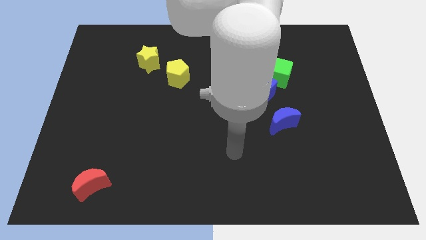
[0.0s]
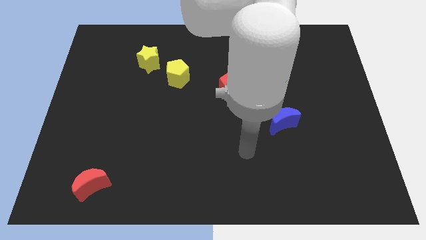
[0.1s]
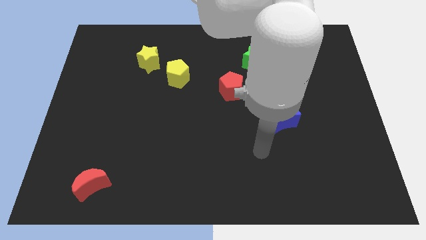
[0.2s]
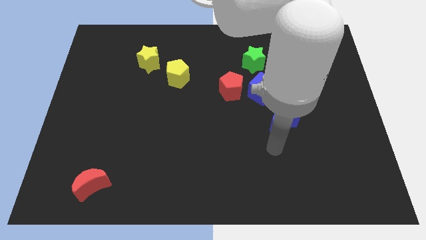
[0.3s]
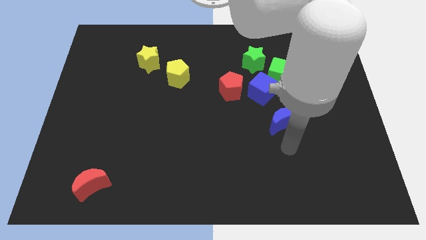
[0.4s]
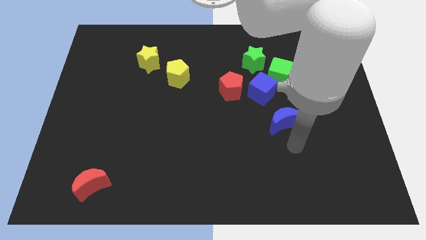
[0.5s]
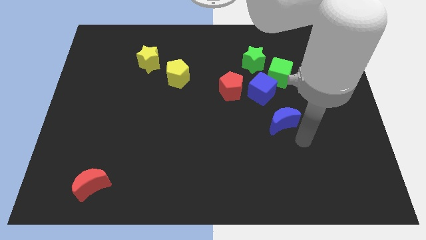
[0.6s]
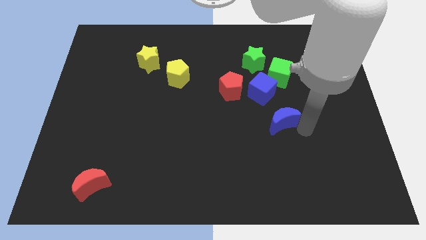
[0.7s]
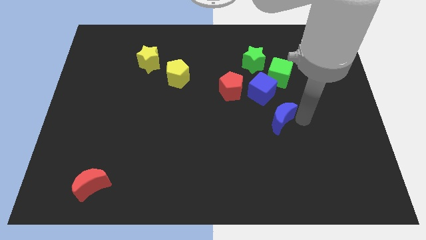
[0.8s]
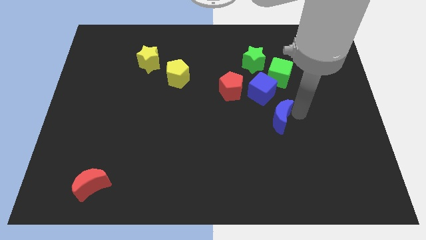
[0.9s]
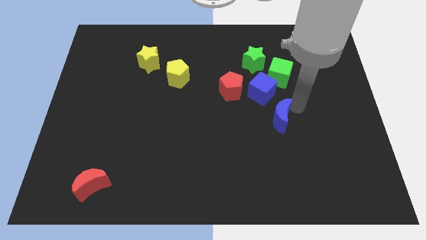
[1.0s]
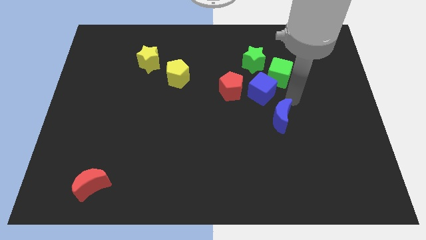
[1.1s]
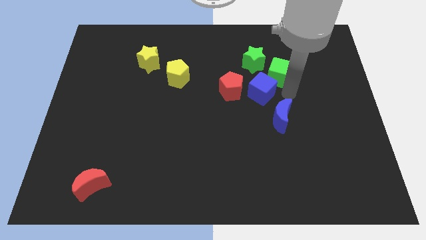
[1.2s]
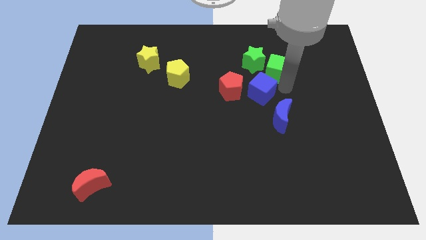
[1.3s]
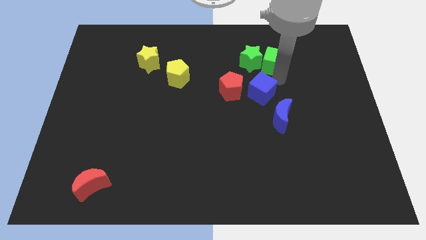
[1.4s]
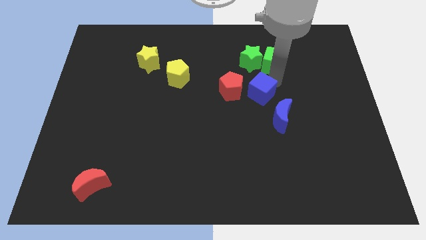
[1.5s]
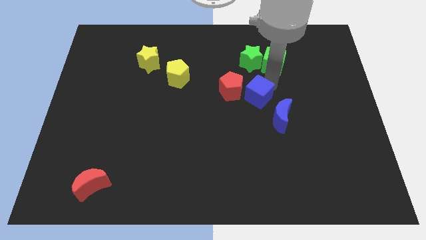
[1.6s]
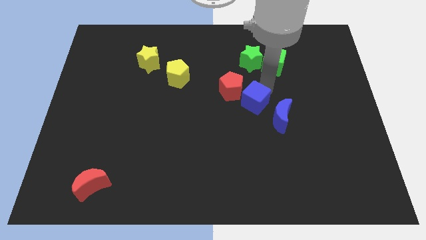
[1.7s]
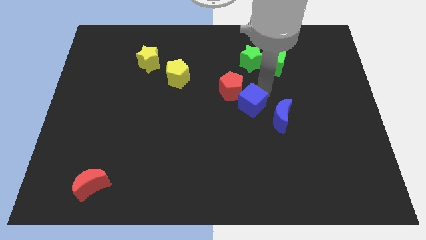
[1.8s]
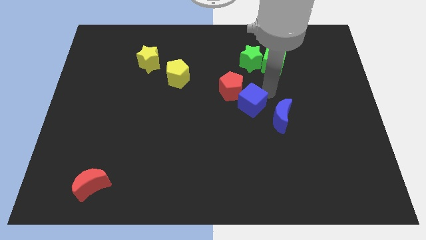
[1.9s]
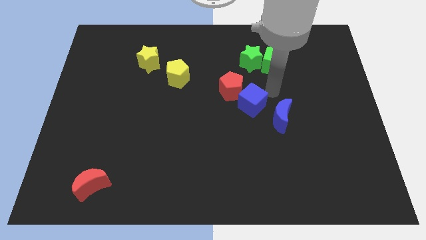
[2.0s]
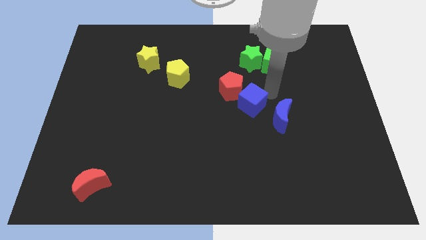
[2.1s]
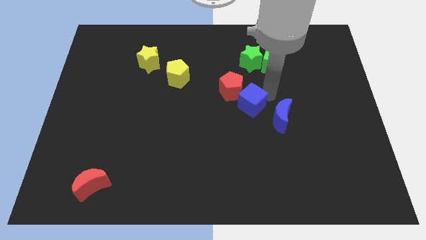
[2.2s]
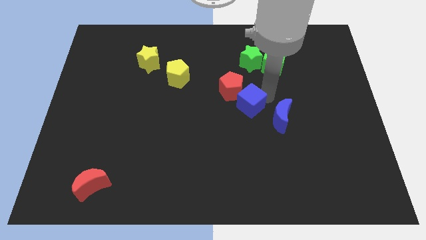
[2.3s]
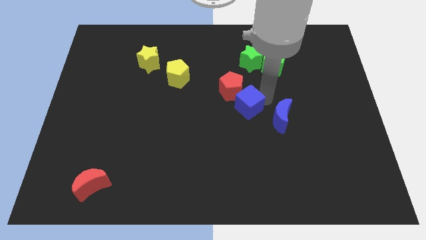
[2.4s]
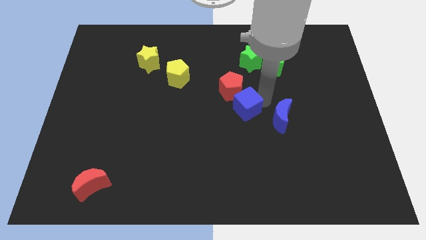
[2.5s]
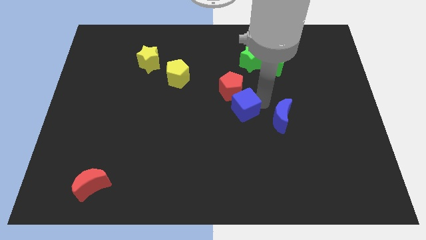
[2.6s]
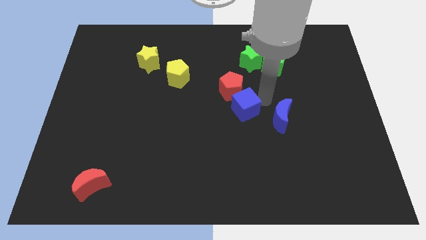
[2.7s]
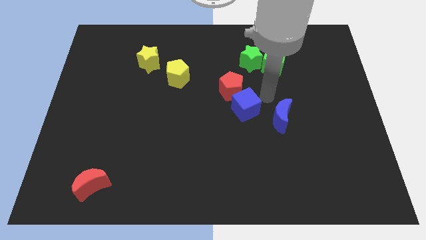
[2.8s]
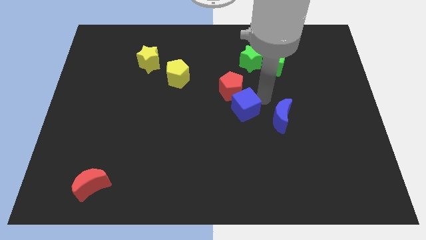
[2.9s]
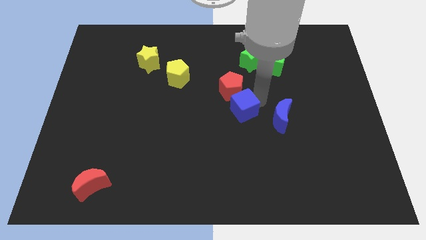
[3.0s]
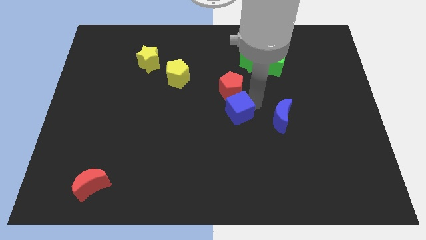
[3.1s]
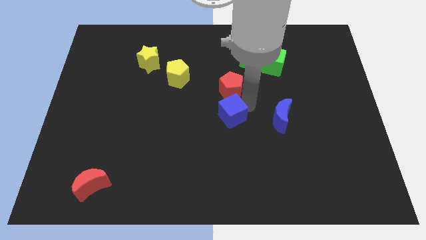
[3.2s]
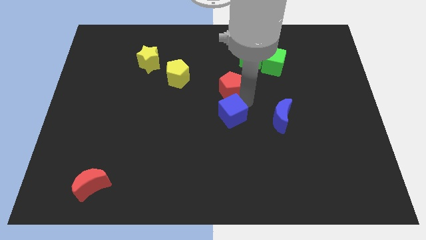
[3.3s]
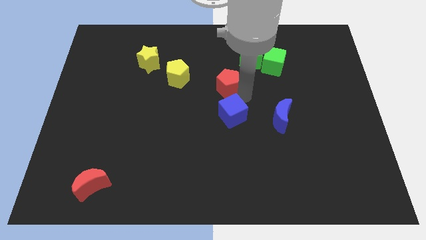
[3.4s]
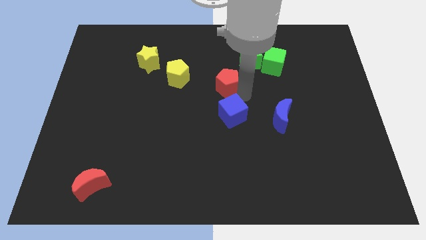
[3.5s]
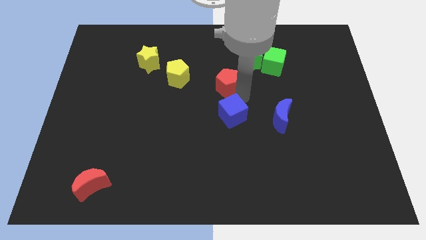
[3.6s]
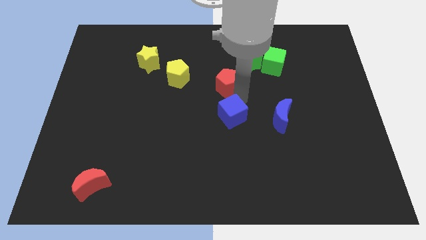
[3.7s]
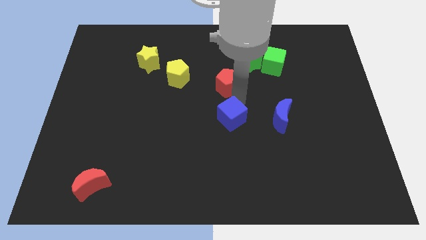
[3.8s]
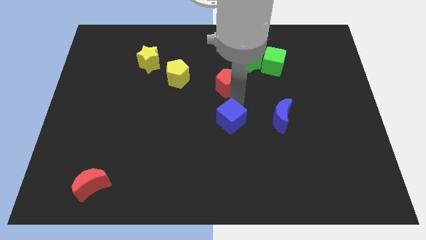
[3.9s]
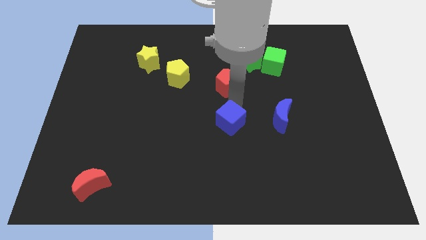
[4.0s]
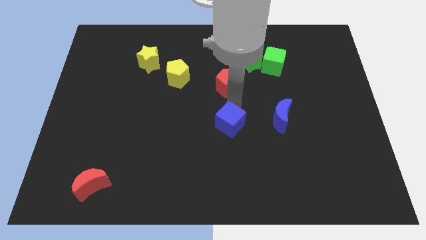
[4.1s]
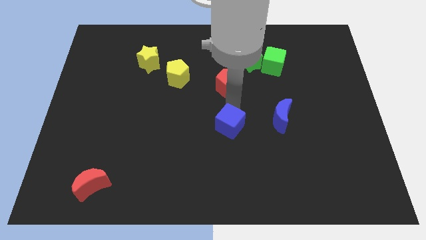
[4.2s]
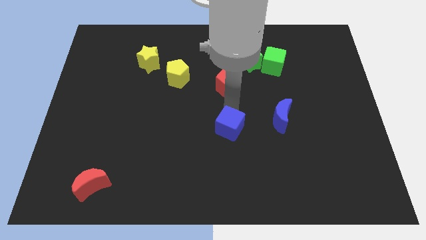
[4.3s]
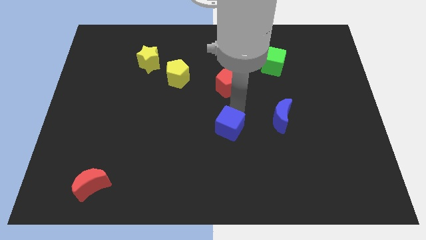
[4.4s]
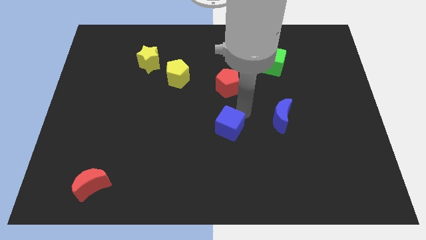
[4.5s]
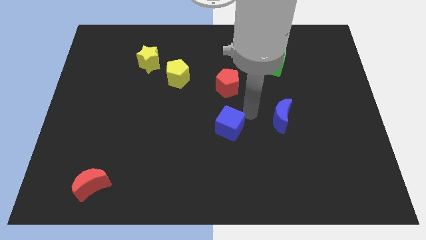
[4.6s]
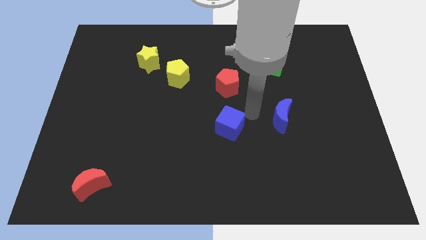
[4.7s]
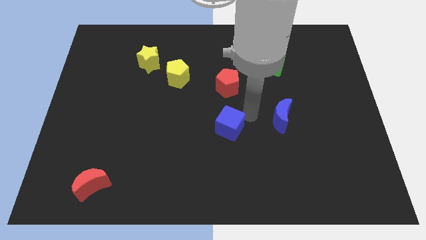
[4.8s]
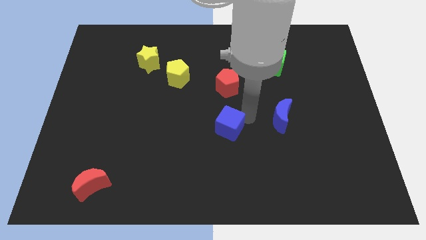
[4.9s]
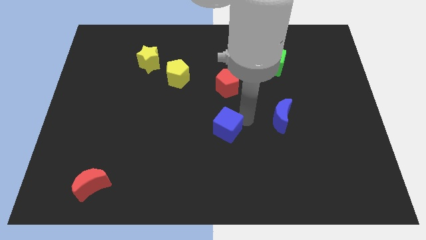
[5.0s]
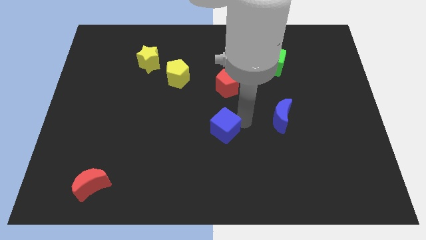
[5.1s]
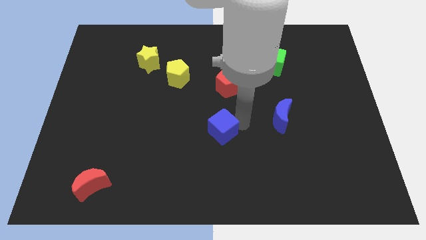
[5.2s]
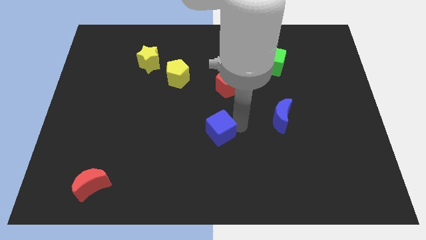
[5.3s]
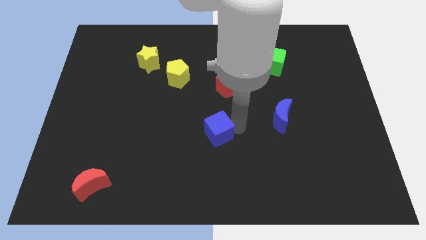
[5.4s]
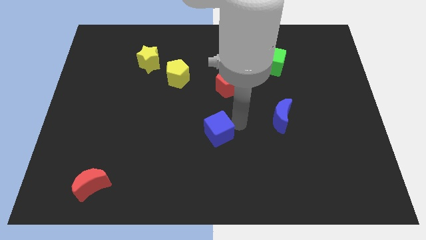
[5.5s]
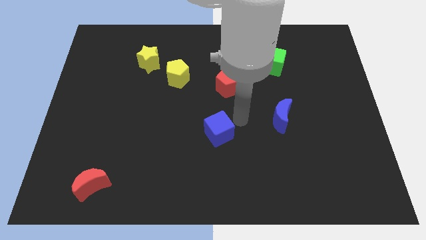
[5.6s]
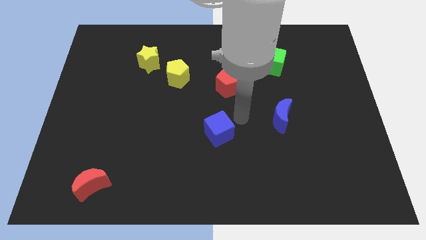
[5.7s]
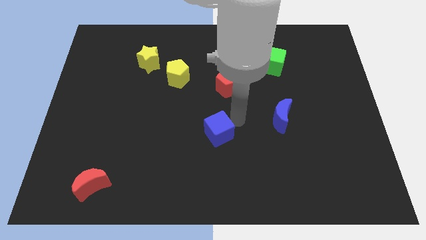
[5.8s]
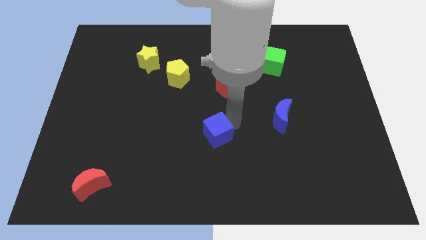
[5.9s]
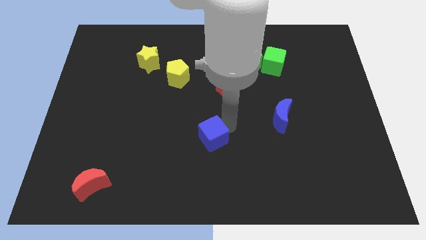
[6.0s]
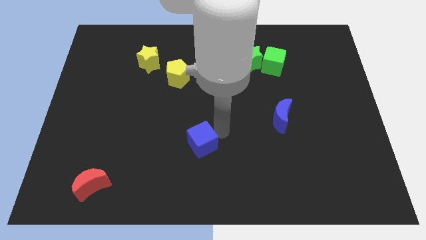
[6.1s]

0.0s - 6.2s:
move the blue cube down and to the left diagonally

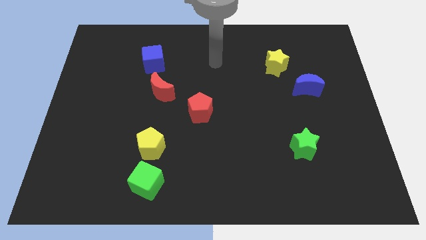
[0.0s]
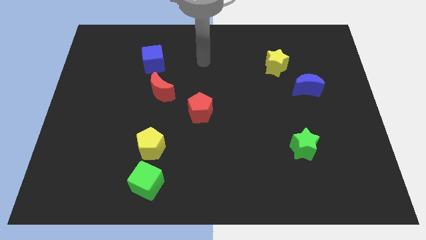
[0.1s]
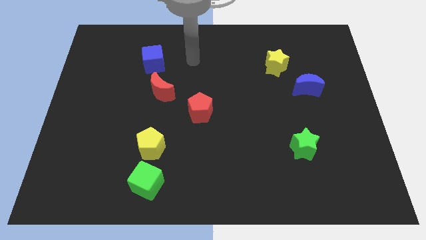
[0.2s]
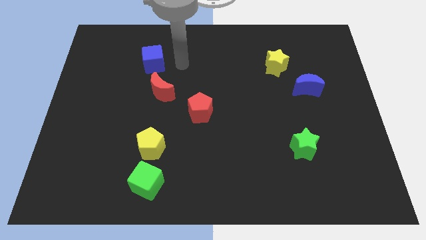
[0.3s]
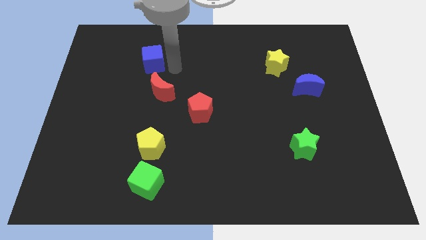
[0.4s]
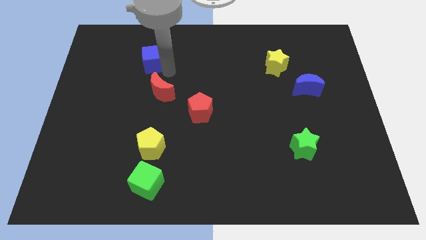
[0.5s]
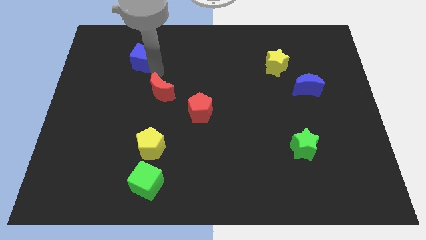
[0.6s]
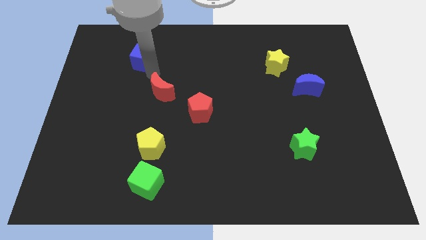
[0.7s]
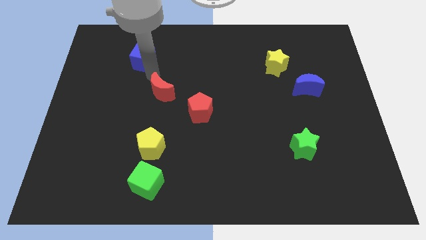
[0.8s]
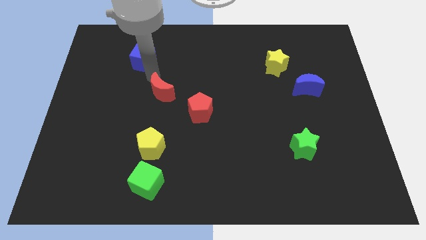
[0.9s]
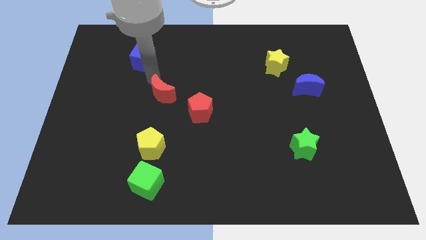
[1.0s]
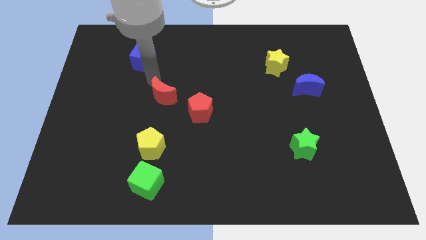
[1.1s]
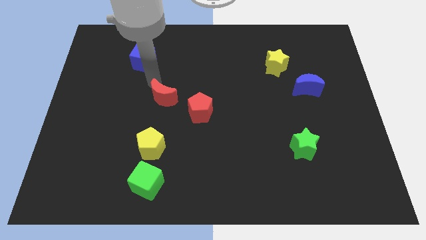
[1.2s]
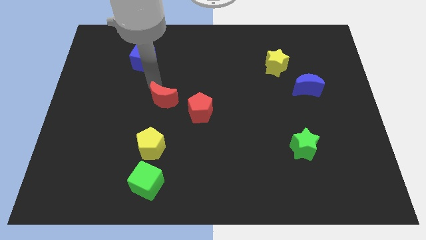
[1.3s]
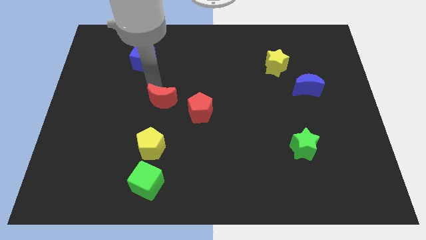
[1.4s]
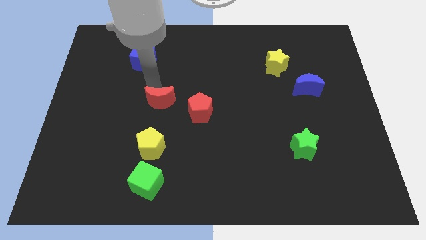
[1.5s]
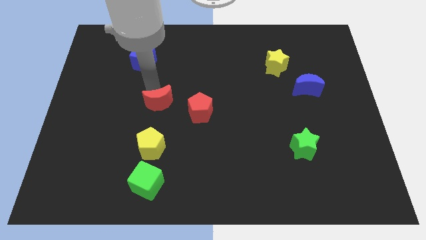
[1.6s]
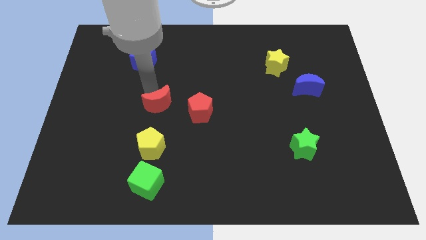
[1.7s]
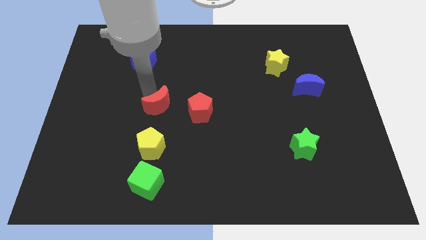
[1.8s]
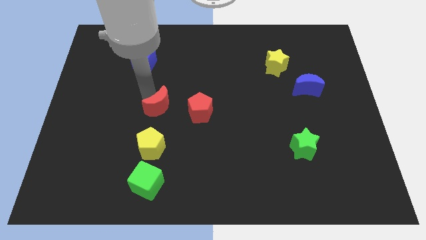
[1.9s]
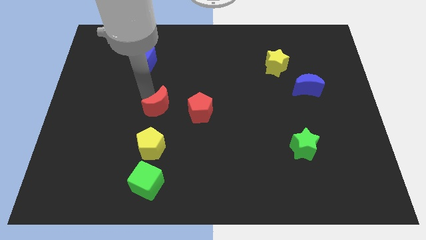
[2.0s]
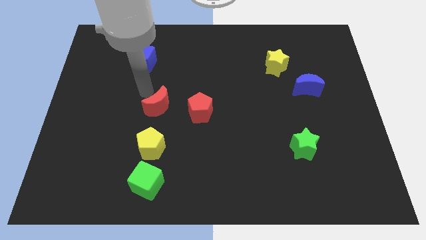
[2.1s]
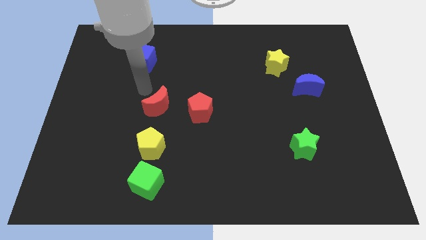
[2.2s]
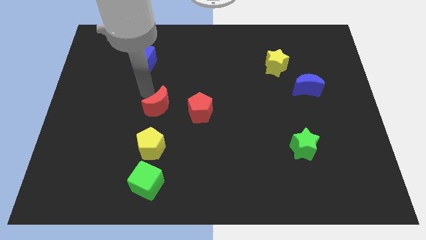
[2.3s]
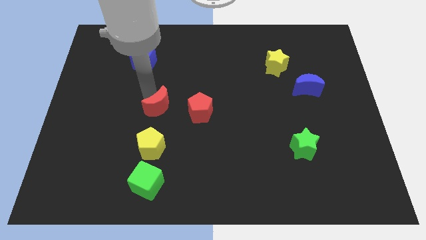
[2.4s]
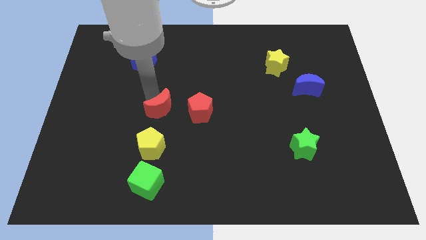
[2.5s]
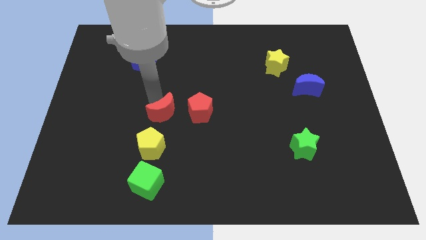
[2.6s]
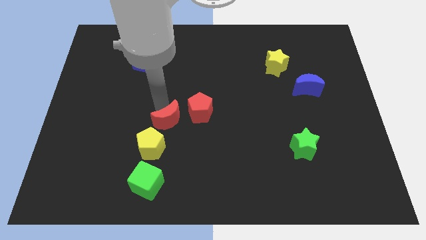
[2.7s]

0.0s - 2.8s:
push the red moon down a bit
